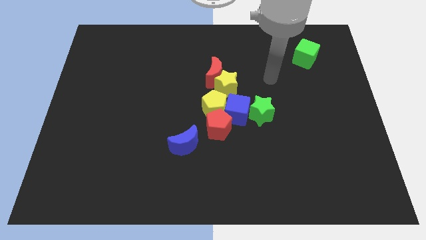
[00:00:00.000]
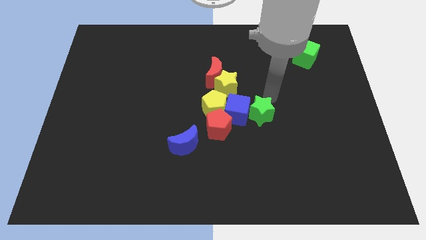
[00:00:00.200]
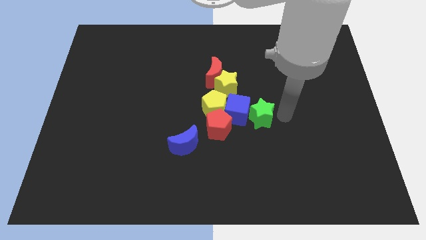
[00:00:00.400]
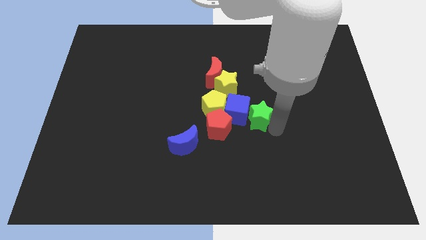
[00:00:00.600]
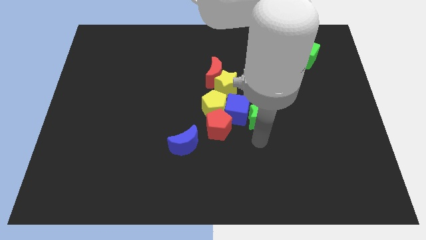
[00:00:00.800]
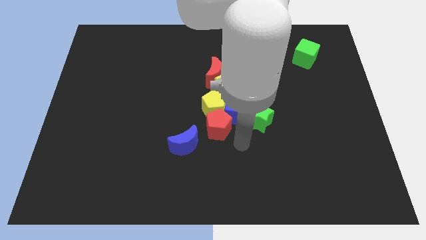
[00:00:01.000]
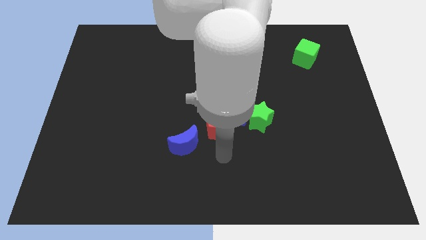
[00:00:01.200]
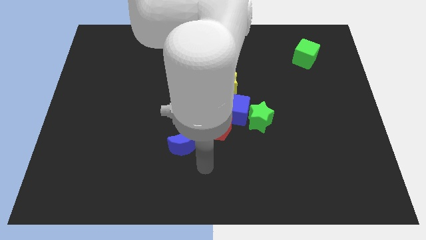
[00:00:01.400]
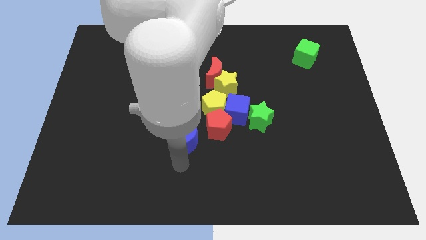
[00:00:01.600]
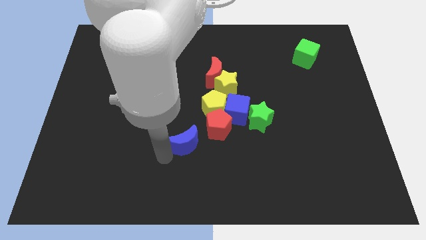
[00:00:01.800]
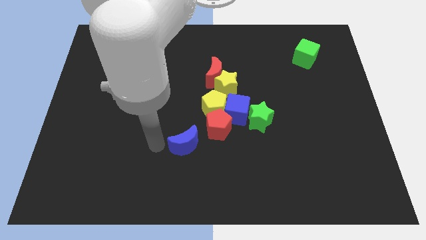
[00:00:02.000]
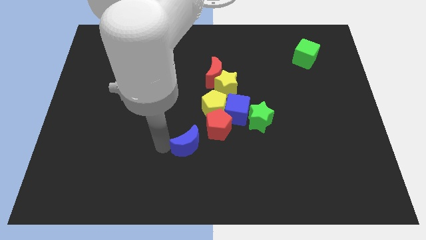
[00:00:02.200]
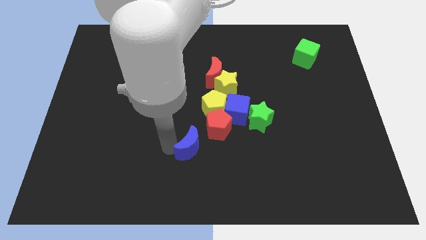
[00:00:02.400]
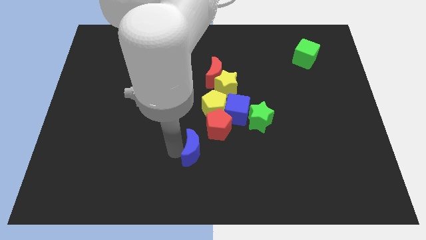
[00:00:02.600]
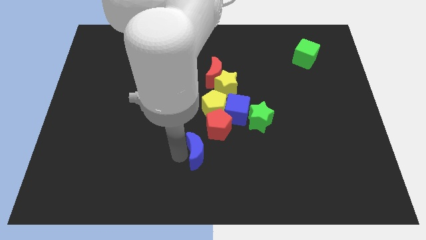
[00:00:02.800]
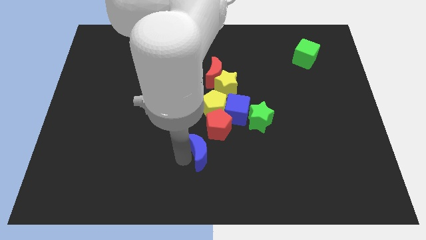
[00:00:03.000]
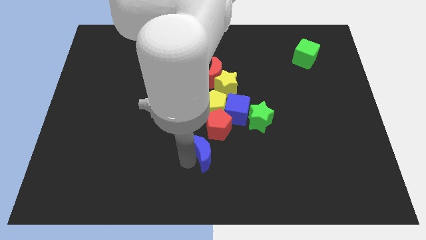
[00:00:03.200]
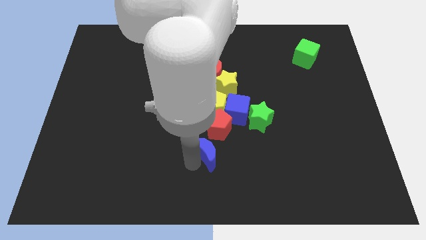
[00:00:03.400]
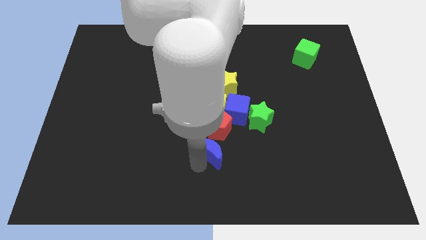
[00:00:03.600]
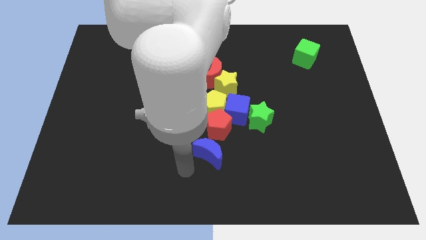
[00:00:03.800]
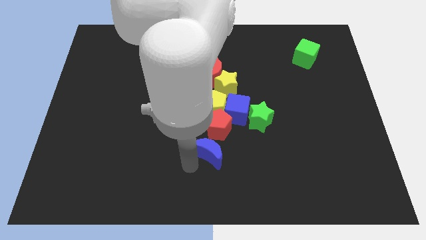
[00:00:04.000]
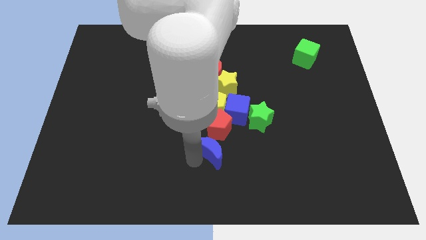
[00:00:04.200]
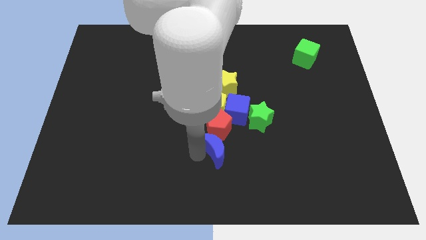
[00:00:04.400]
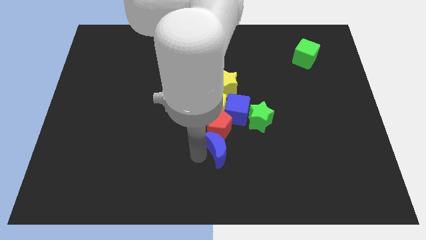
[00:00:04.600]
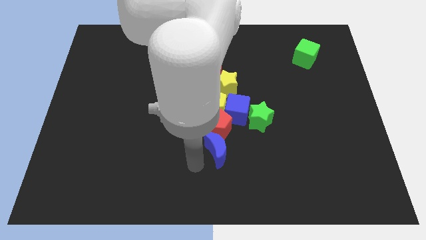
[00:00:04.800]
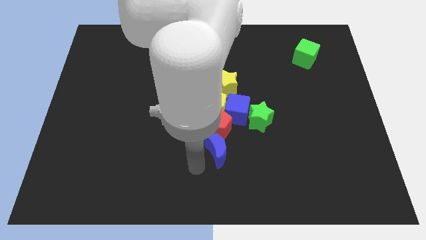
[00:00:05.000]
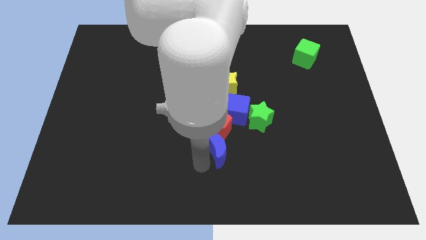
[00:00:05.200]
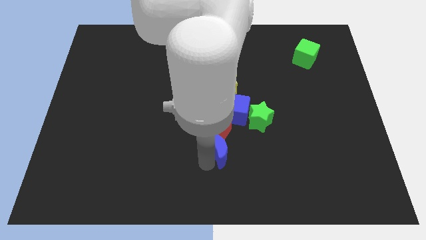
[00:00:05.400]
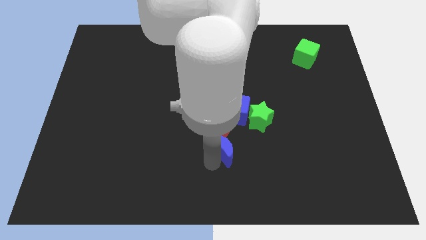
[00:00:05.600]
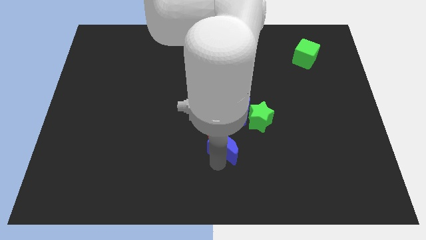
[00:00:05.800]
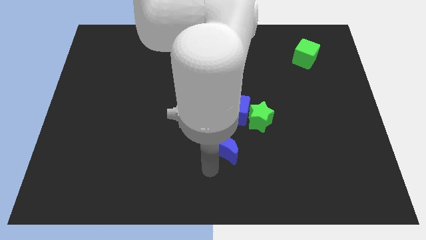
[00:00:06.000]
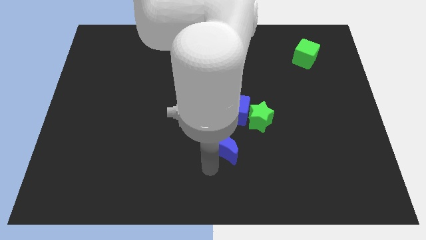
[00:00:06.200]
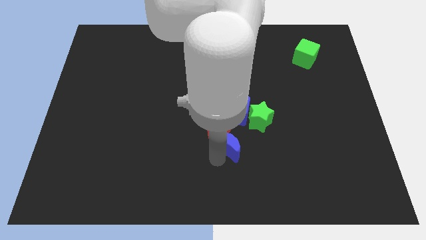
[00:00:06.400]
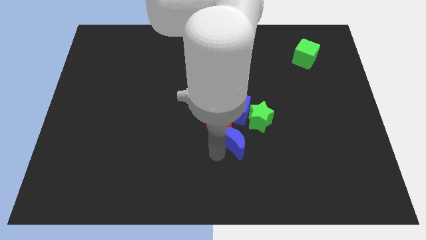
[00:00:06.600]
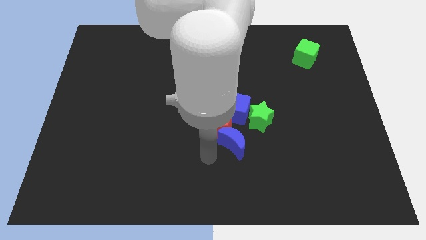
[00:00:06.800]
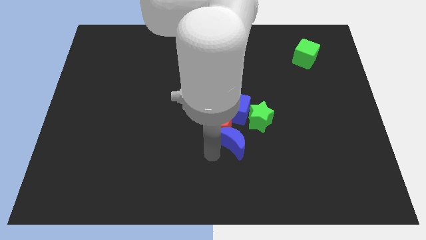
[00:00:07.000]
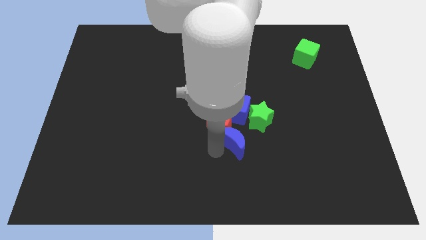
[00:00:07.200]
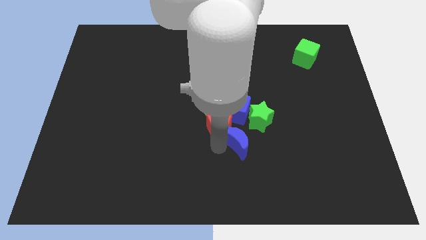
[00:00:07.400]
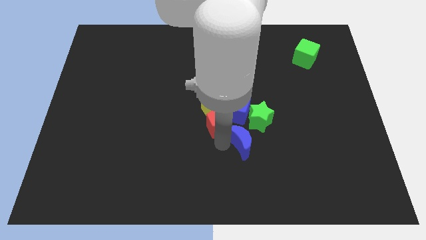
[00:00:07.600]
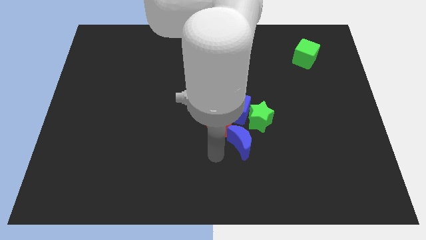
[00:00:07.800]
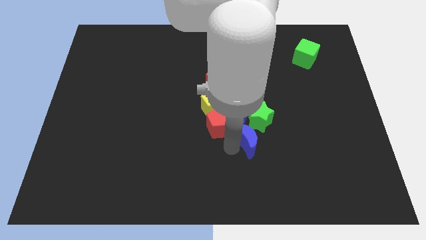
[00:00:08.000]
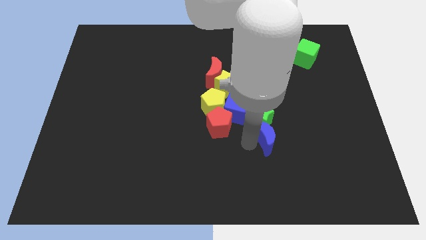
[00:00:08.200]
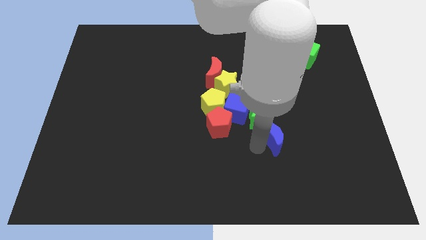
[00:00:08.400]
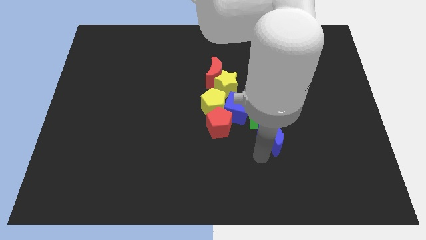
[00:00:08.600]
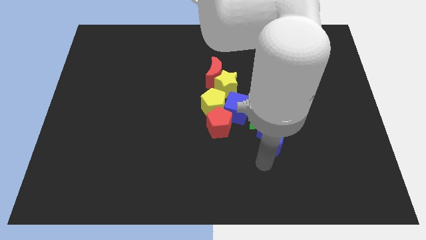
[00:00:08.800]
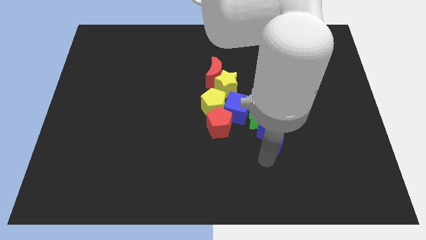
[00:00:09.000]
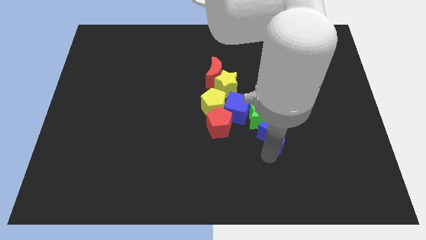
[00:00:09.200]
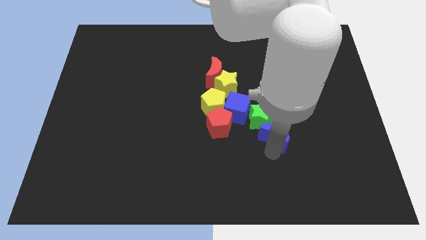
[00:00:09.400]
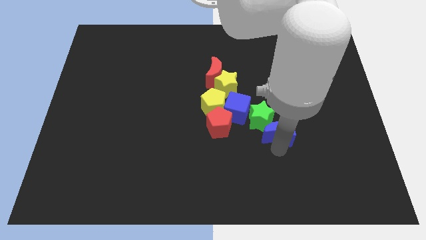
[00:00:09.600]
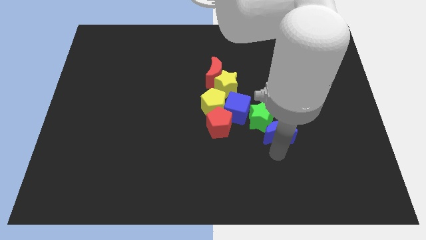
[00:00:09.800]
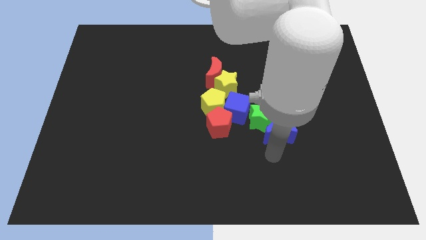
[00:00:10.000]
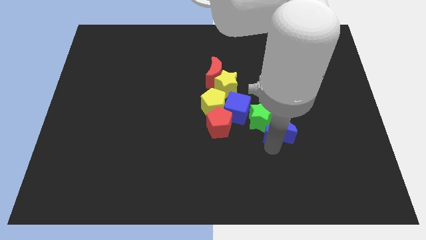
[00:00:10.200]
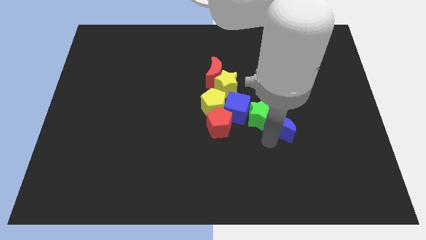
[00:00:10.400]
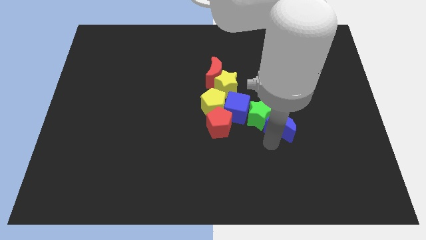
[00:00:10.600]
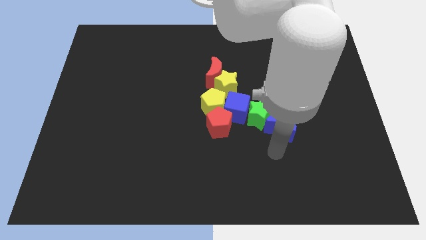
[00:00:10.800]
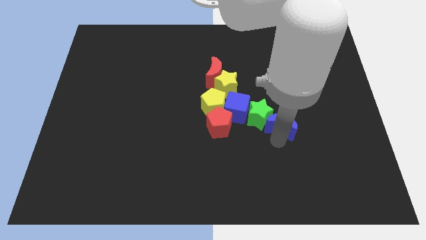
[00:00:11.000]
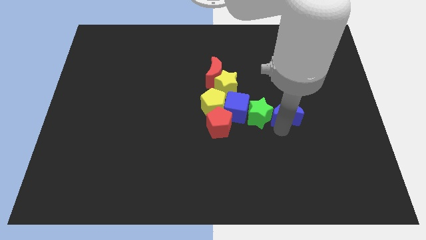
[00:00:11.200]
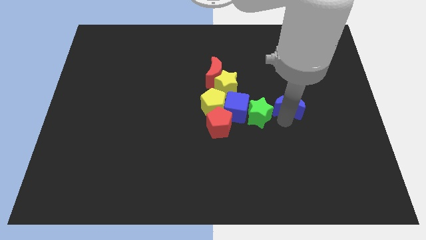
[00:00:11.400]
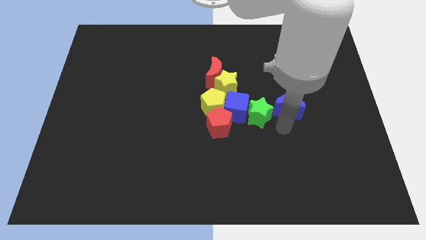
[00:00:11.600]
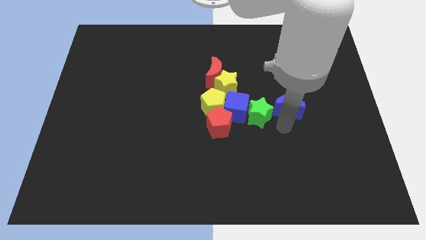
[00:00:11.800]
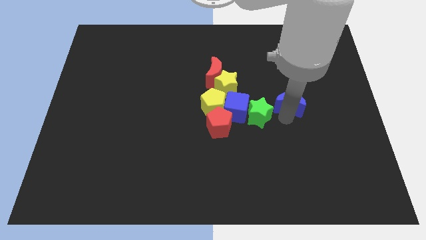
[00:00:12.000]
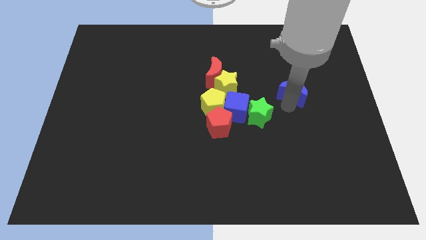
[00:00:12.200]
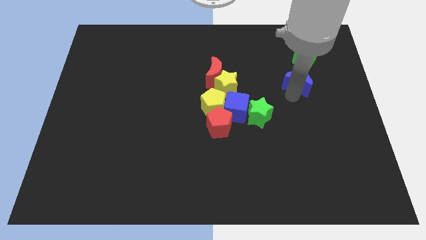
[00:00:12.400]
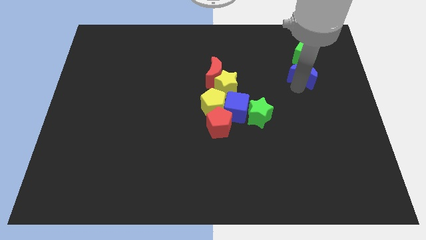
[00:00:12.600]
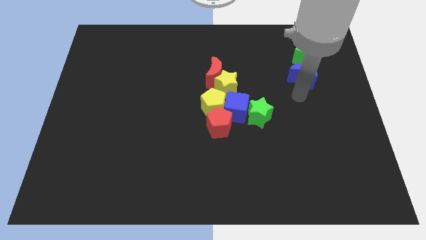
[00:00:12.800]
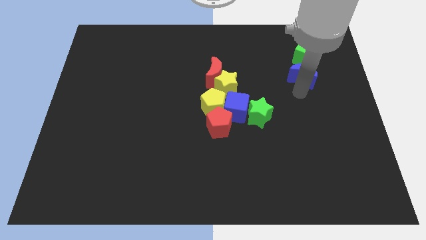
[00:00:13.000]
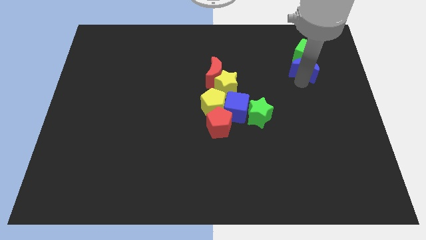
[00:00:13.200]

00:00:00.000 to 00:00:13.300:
move the blue moon to the green cube
